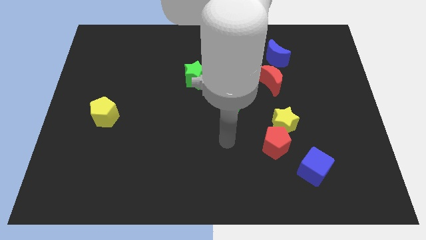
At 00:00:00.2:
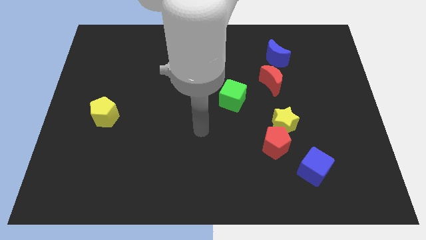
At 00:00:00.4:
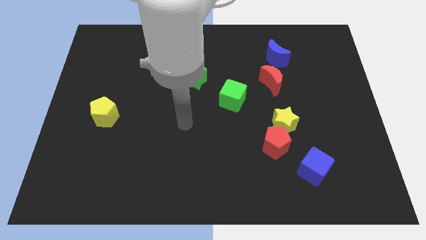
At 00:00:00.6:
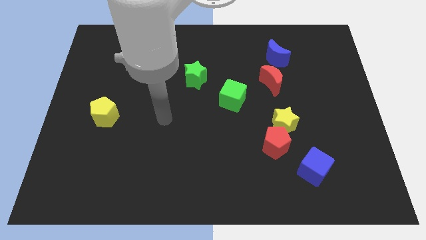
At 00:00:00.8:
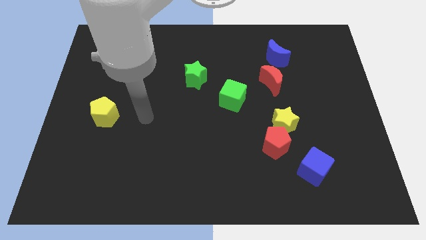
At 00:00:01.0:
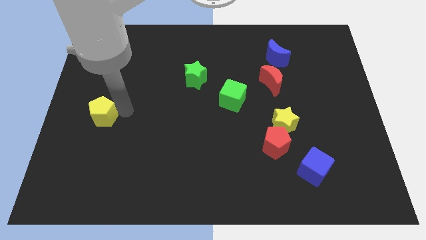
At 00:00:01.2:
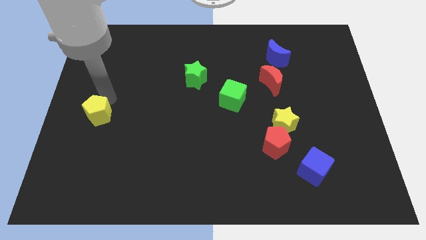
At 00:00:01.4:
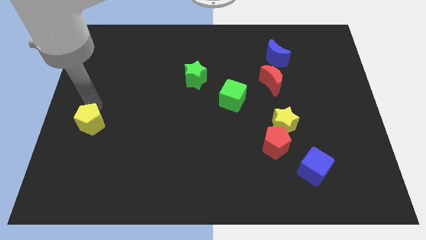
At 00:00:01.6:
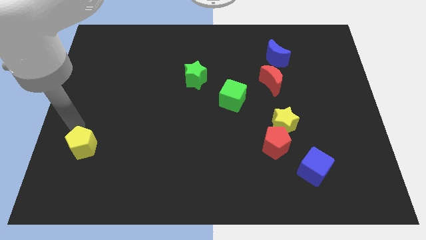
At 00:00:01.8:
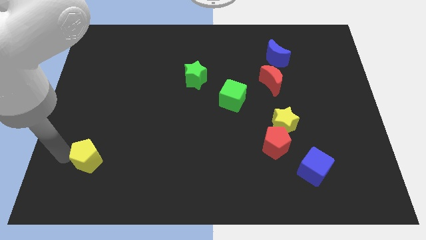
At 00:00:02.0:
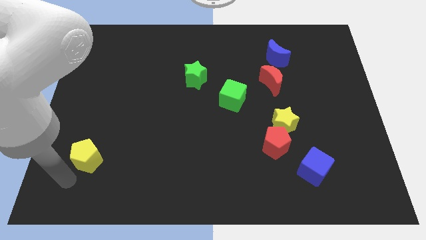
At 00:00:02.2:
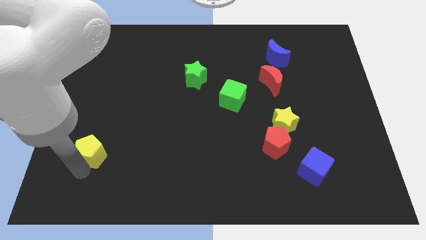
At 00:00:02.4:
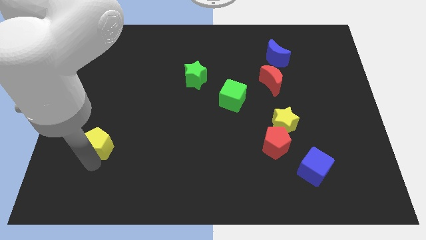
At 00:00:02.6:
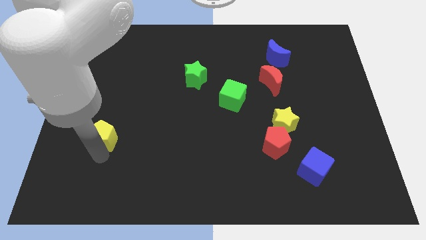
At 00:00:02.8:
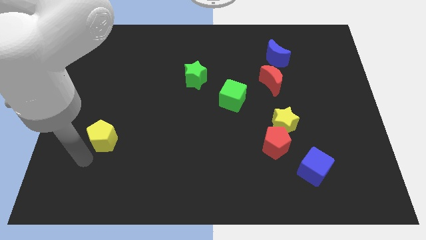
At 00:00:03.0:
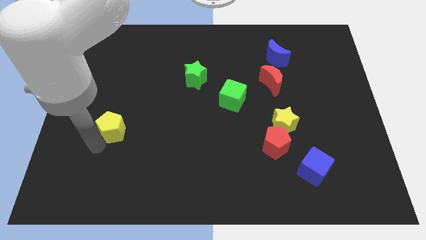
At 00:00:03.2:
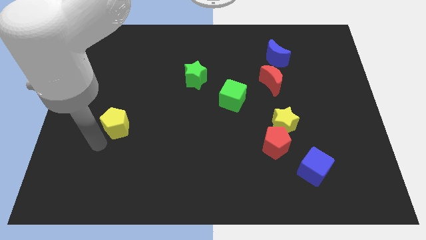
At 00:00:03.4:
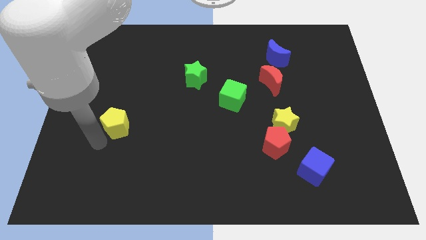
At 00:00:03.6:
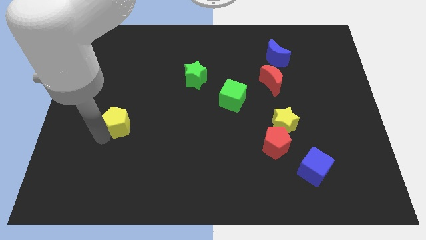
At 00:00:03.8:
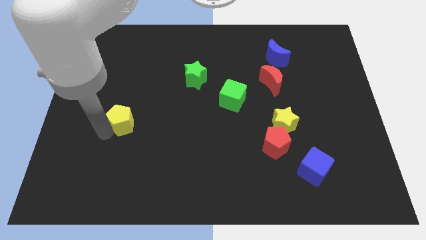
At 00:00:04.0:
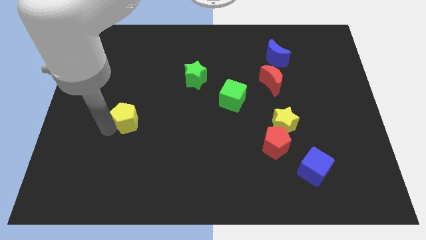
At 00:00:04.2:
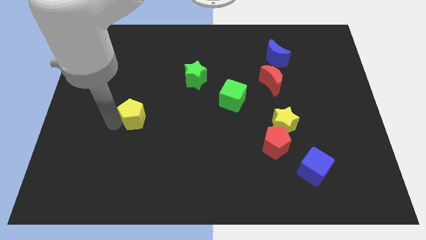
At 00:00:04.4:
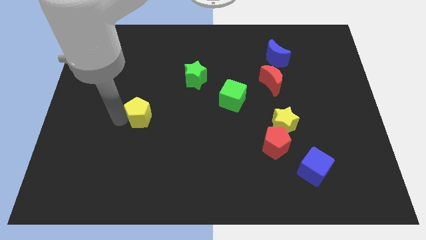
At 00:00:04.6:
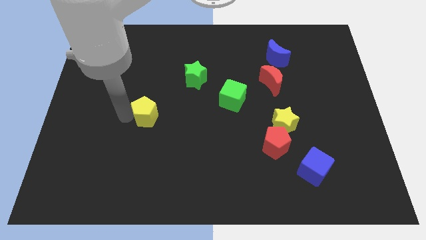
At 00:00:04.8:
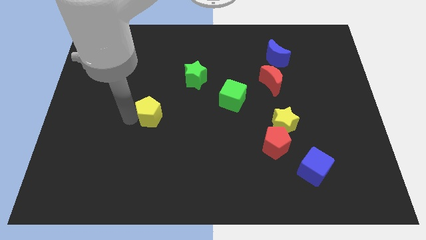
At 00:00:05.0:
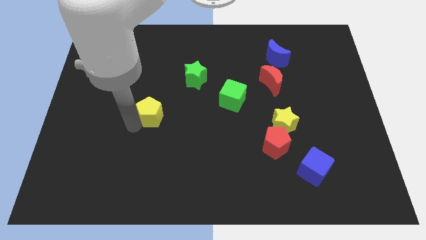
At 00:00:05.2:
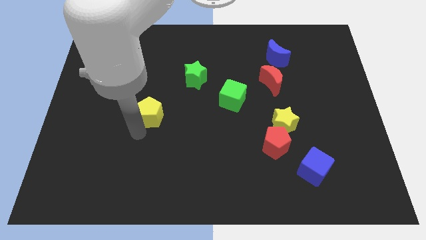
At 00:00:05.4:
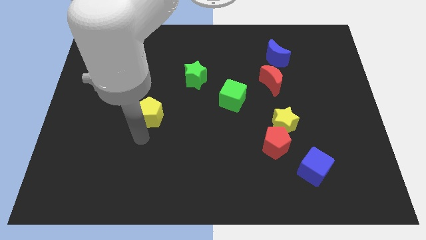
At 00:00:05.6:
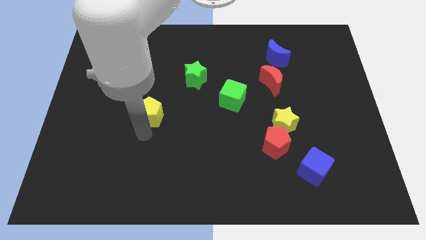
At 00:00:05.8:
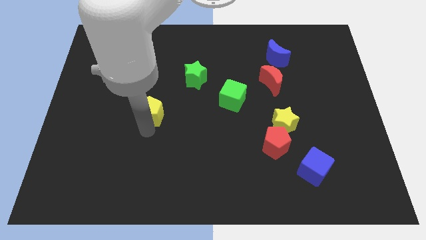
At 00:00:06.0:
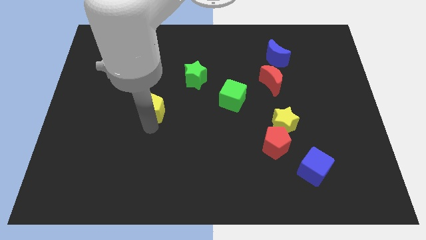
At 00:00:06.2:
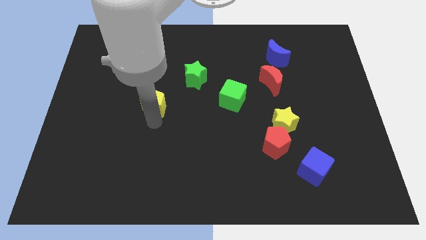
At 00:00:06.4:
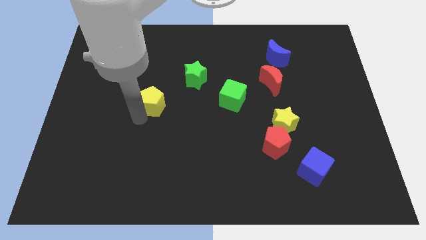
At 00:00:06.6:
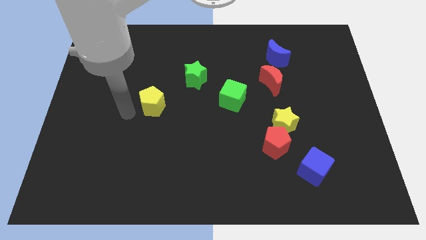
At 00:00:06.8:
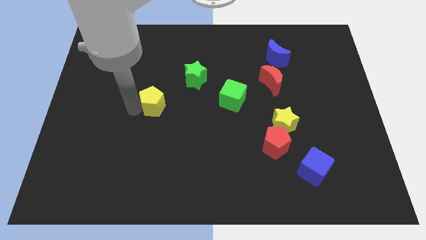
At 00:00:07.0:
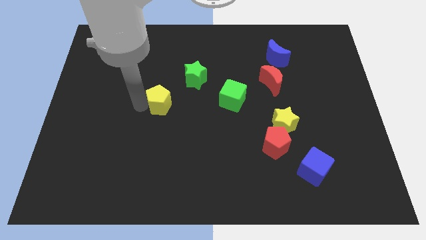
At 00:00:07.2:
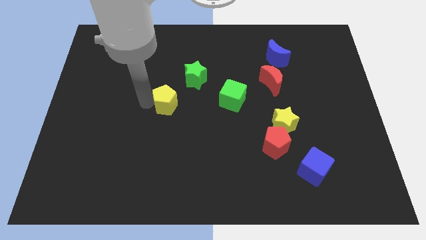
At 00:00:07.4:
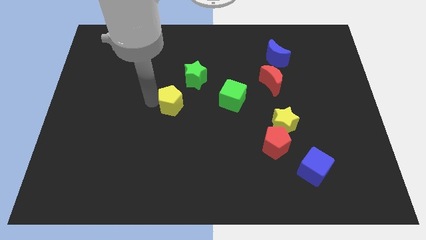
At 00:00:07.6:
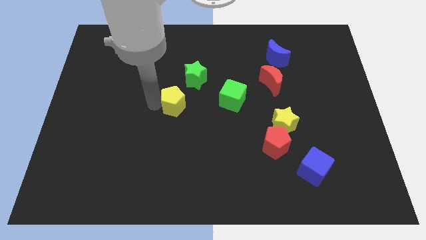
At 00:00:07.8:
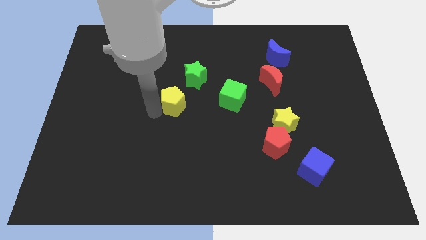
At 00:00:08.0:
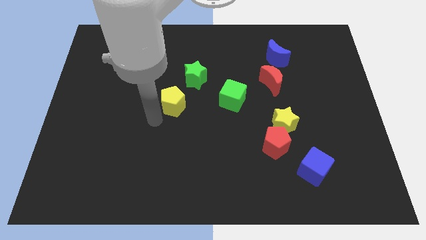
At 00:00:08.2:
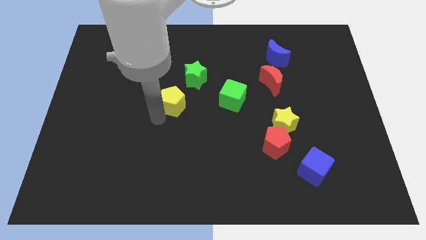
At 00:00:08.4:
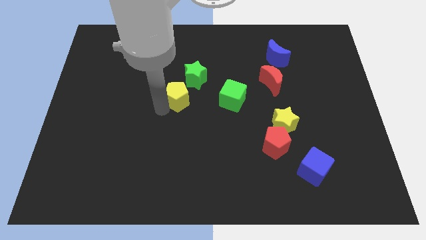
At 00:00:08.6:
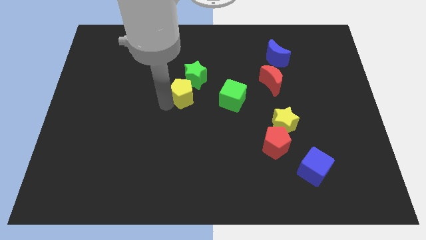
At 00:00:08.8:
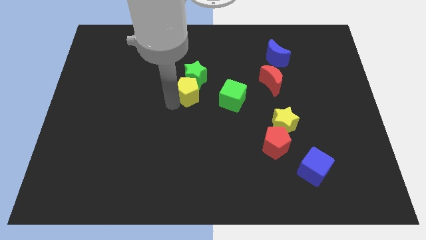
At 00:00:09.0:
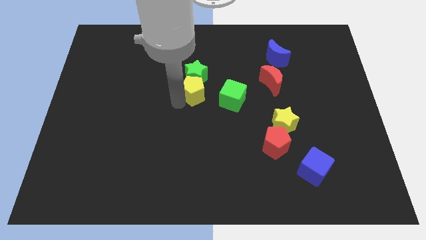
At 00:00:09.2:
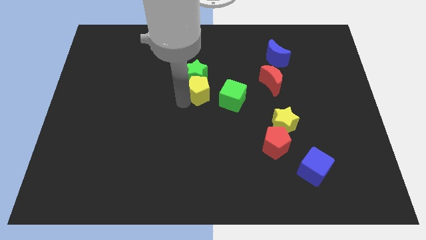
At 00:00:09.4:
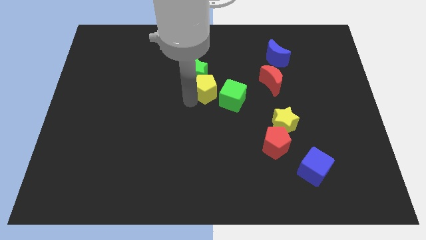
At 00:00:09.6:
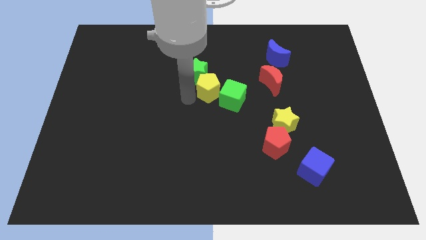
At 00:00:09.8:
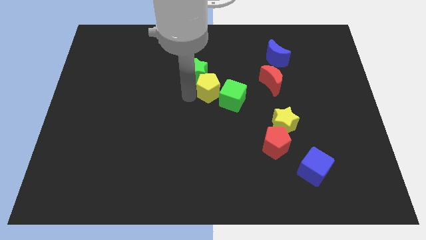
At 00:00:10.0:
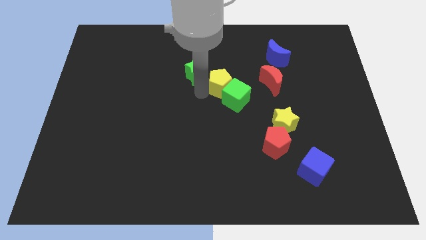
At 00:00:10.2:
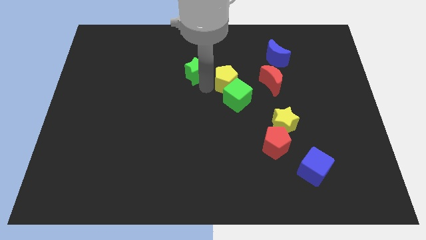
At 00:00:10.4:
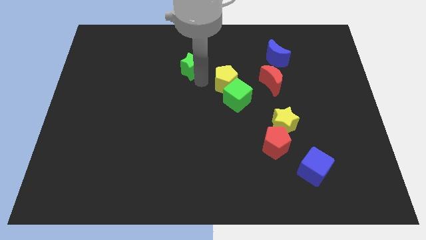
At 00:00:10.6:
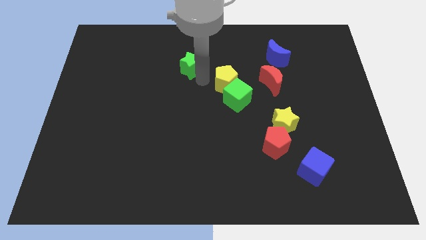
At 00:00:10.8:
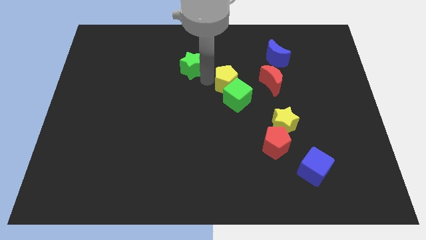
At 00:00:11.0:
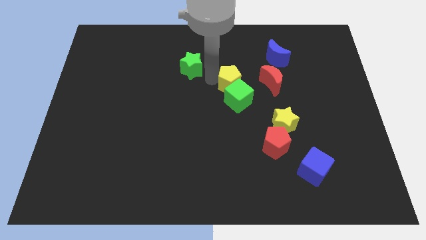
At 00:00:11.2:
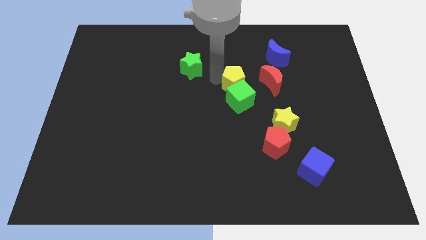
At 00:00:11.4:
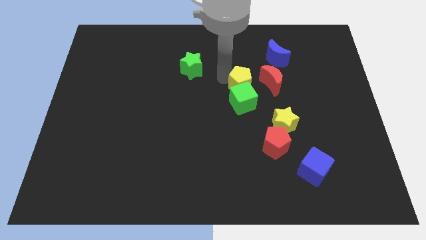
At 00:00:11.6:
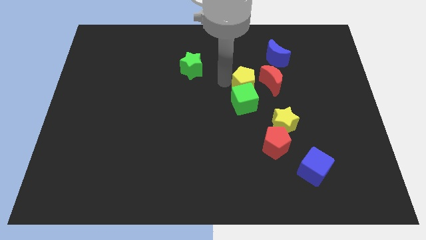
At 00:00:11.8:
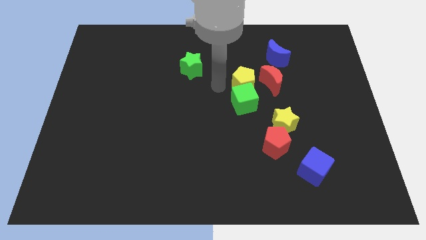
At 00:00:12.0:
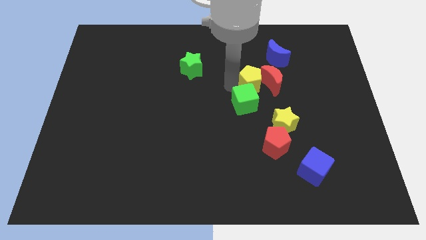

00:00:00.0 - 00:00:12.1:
push the yellow pentagon towards the red moon
